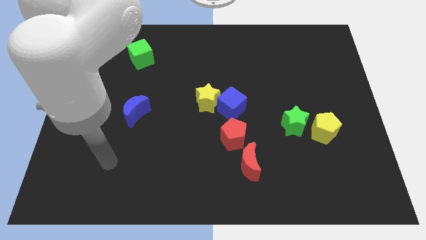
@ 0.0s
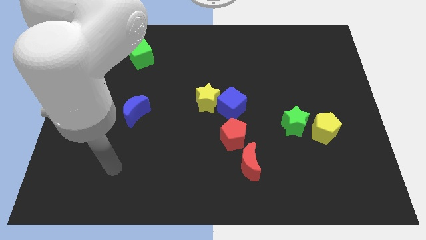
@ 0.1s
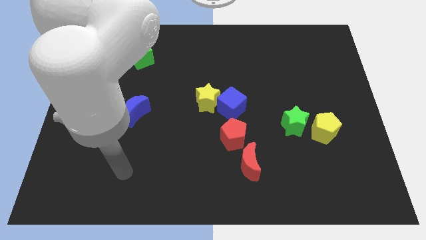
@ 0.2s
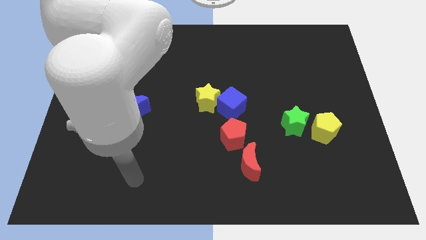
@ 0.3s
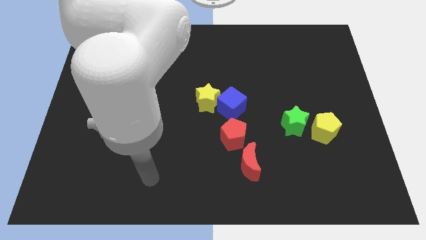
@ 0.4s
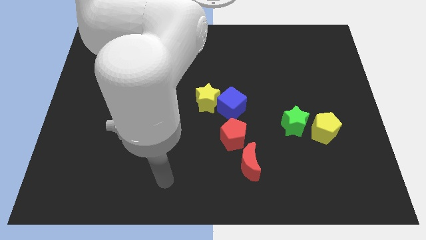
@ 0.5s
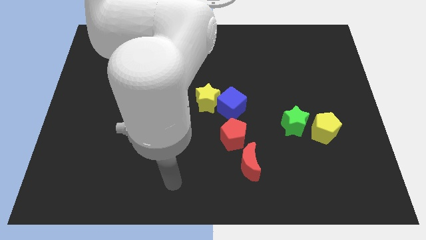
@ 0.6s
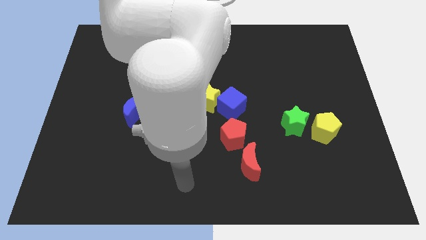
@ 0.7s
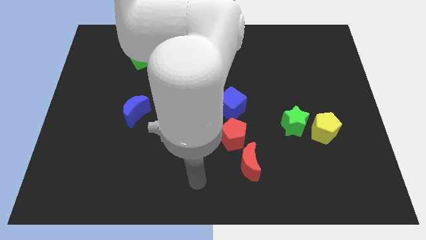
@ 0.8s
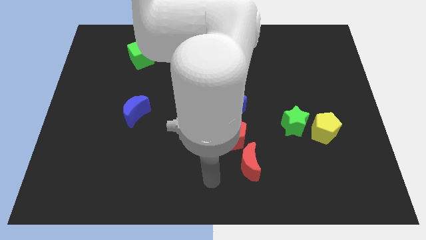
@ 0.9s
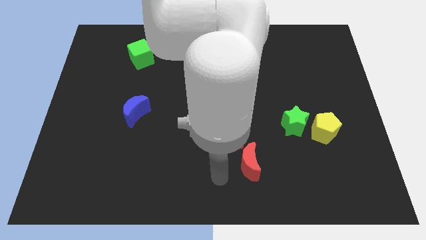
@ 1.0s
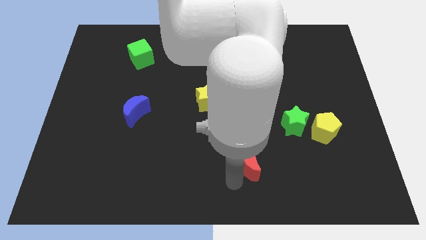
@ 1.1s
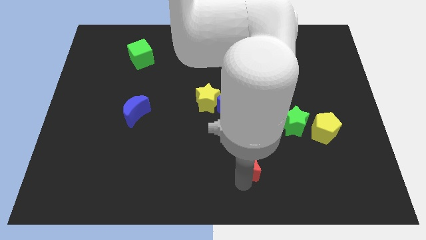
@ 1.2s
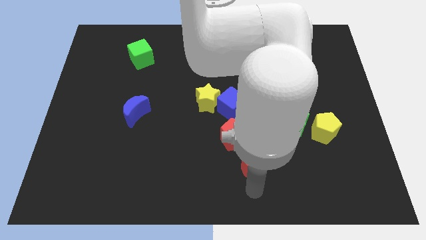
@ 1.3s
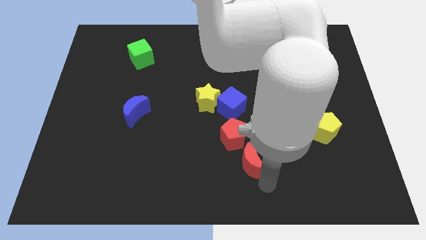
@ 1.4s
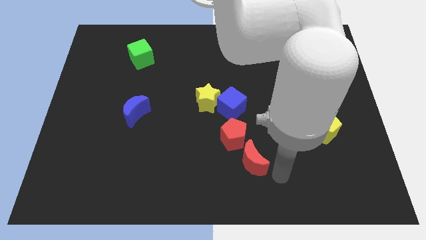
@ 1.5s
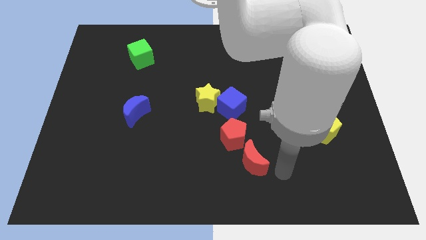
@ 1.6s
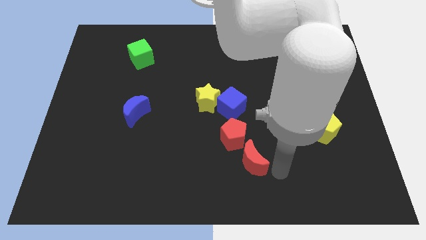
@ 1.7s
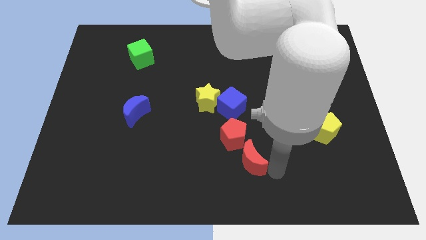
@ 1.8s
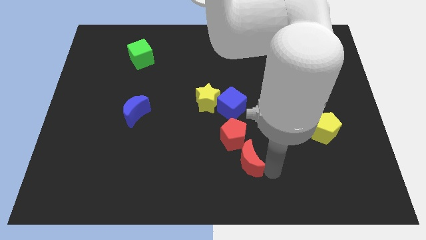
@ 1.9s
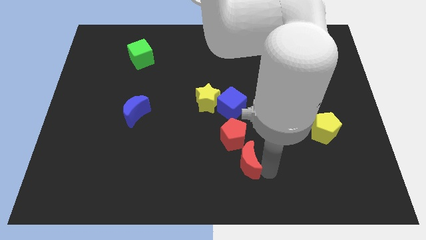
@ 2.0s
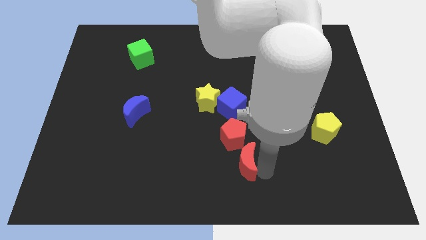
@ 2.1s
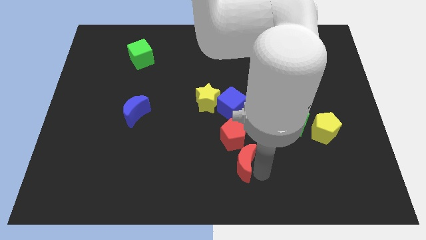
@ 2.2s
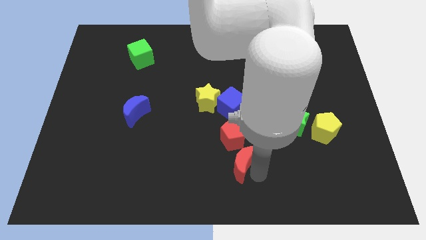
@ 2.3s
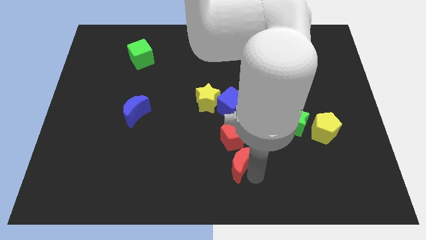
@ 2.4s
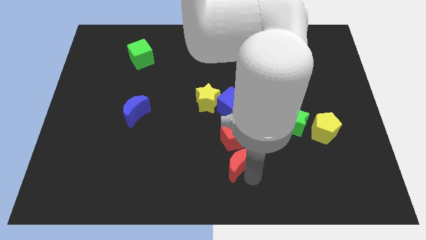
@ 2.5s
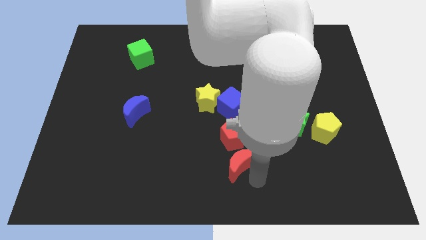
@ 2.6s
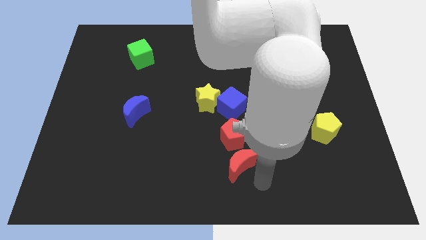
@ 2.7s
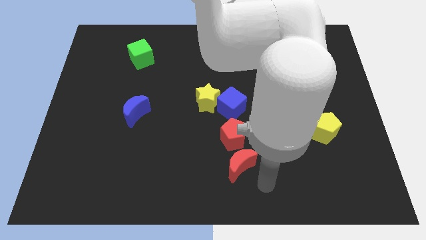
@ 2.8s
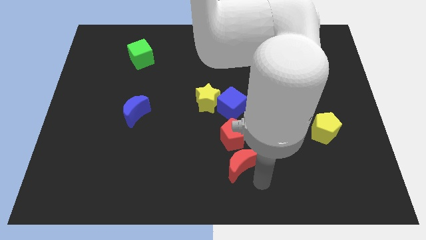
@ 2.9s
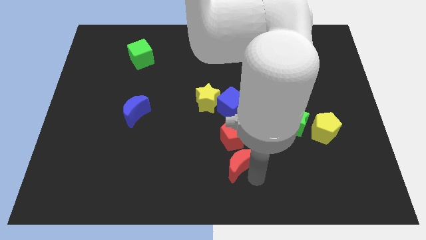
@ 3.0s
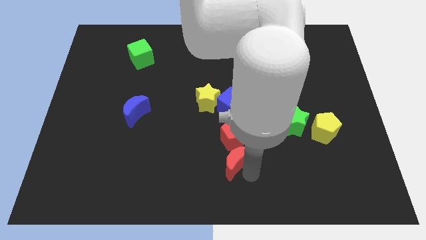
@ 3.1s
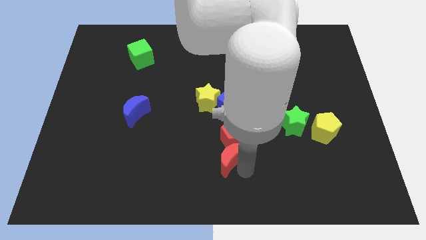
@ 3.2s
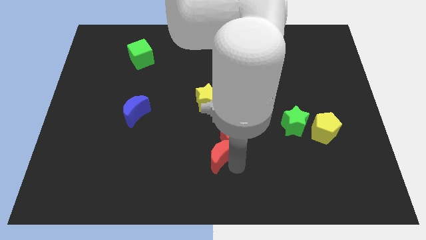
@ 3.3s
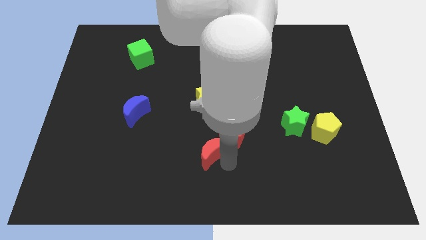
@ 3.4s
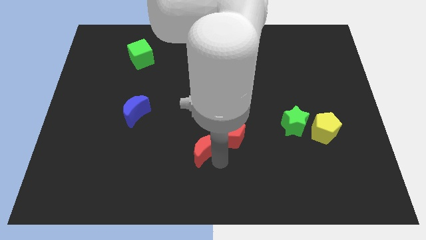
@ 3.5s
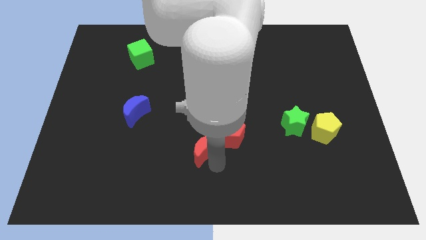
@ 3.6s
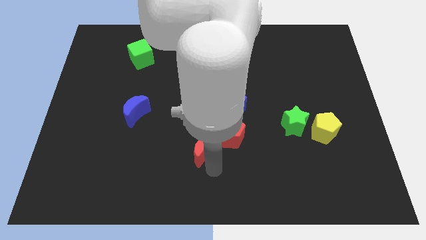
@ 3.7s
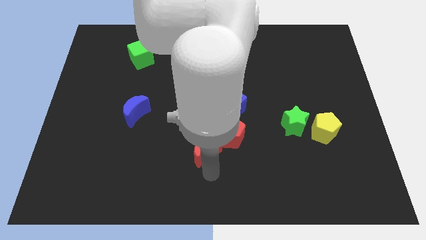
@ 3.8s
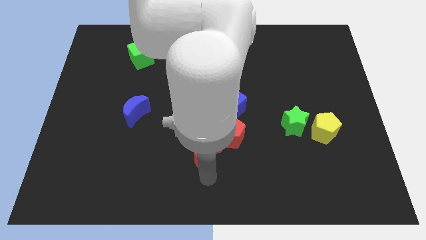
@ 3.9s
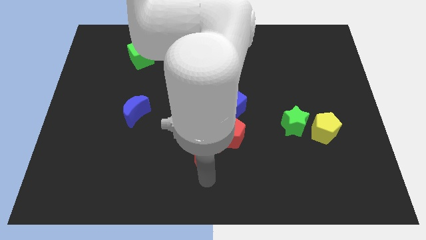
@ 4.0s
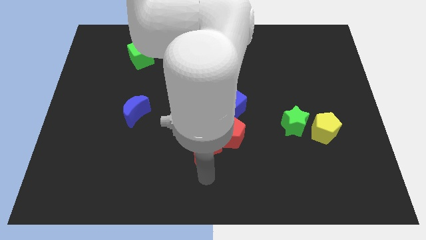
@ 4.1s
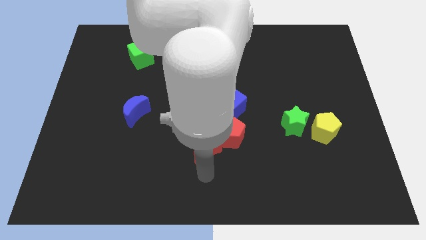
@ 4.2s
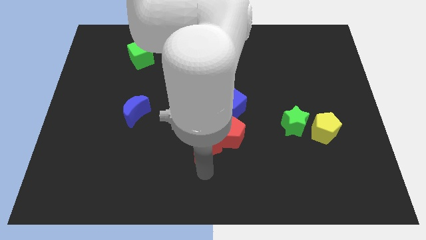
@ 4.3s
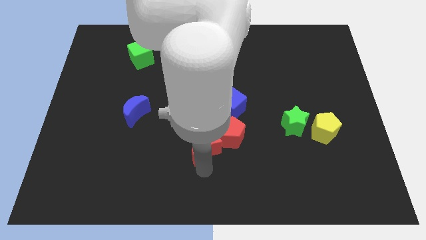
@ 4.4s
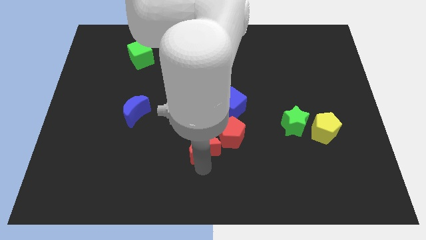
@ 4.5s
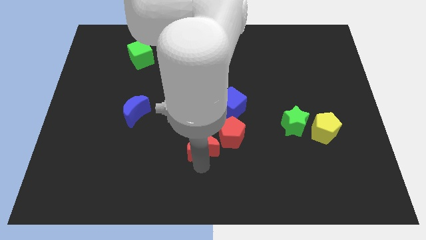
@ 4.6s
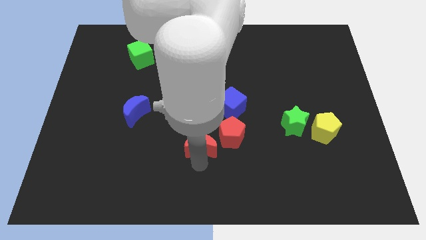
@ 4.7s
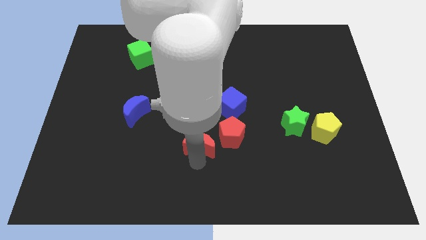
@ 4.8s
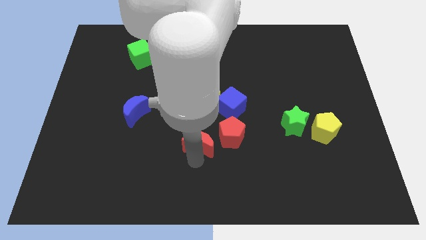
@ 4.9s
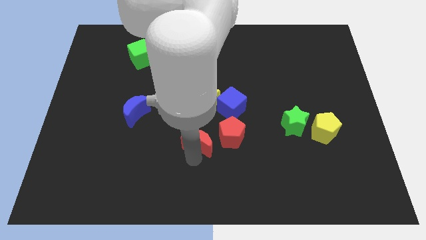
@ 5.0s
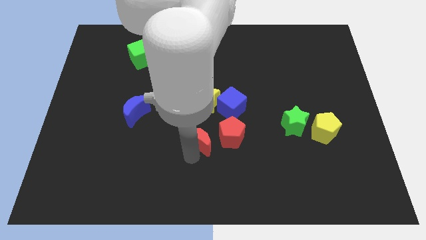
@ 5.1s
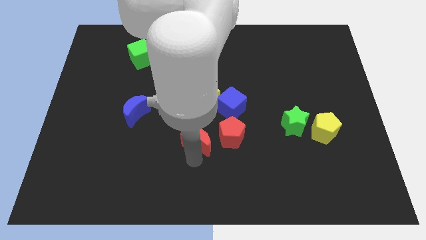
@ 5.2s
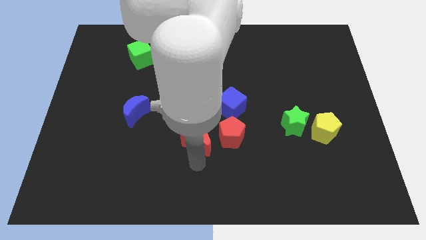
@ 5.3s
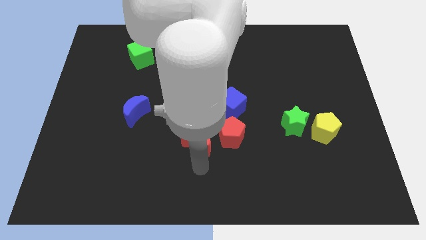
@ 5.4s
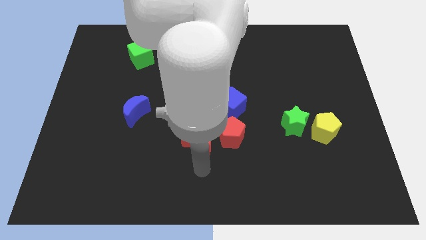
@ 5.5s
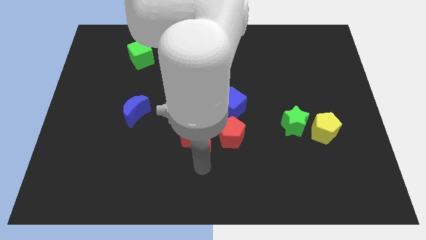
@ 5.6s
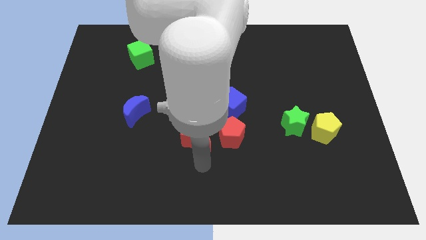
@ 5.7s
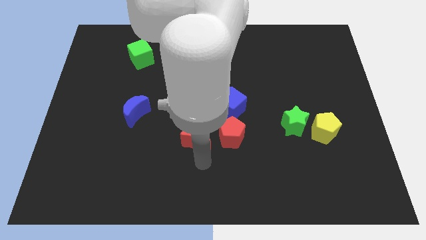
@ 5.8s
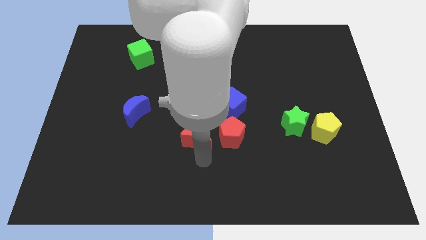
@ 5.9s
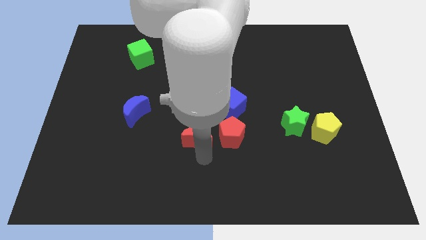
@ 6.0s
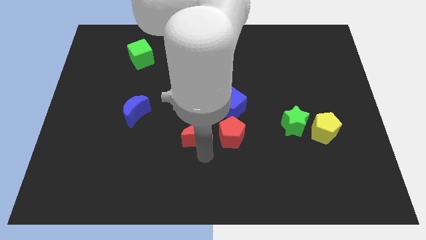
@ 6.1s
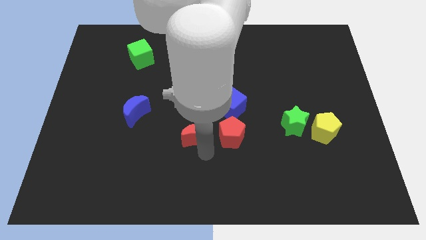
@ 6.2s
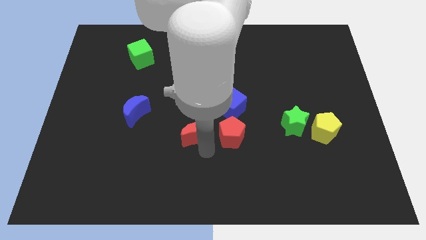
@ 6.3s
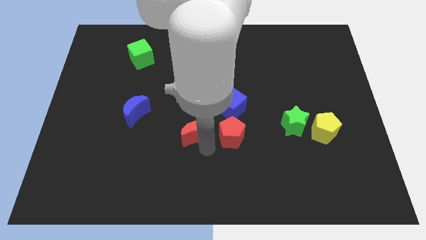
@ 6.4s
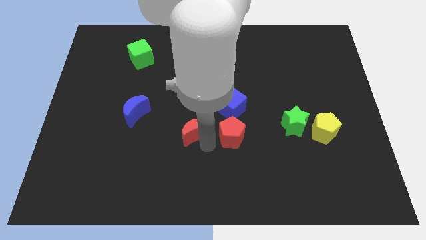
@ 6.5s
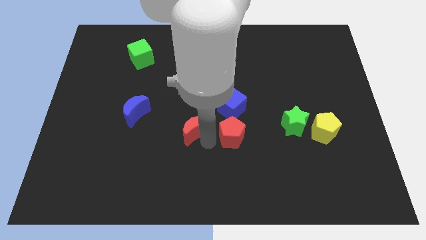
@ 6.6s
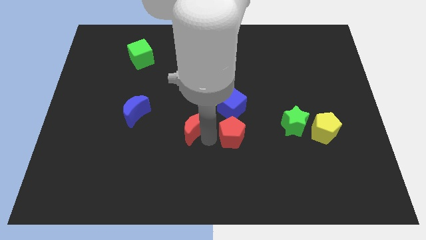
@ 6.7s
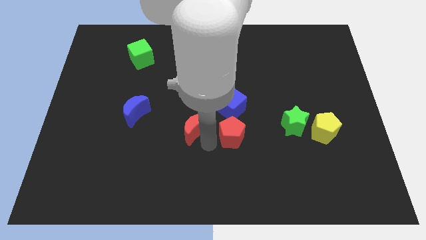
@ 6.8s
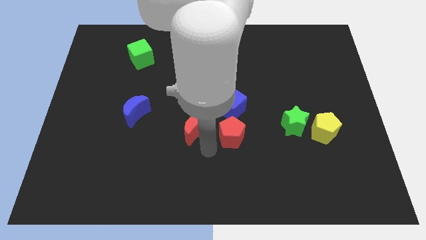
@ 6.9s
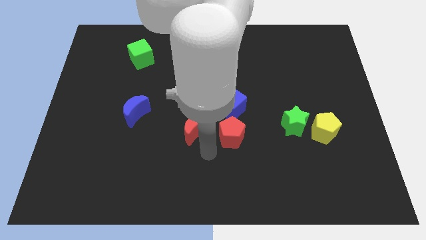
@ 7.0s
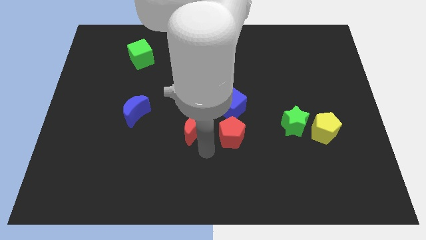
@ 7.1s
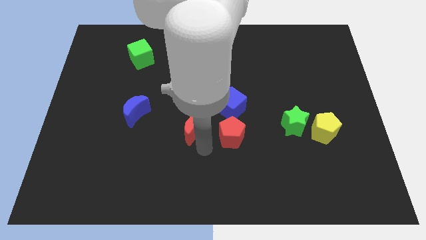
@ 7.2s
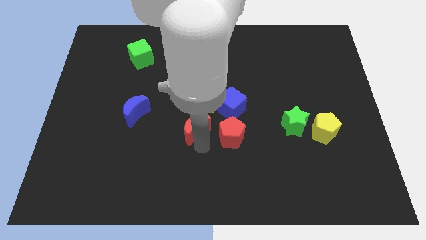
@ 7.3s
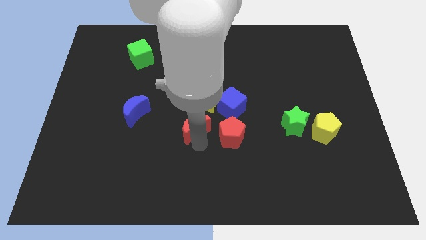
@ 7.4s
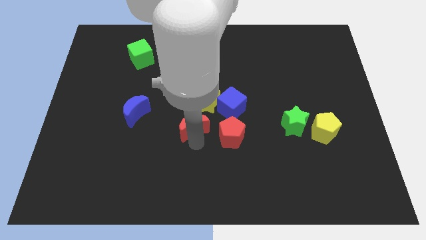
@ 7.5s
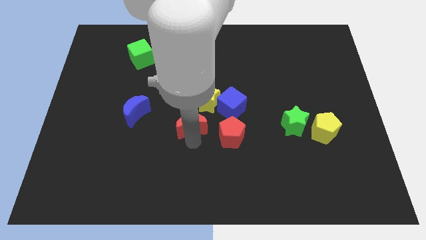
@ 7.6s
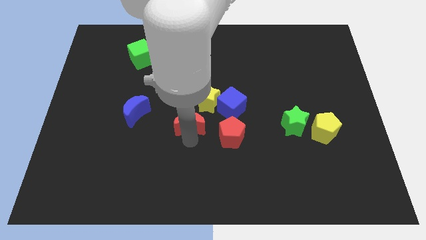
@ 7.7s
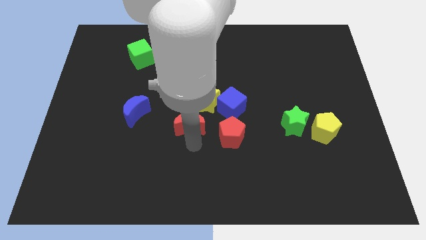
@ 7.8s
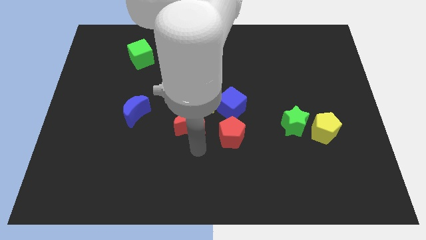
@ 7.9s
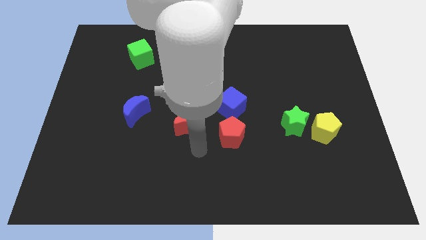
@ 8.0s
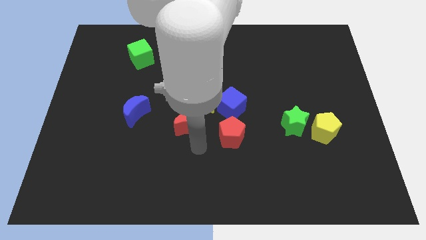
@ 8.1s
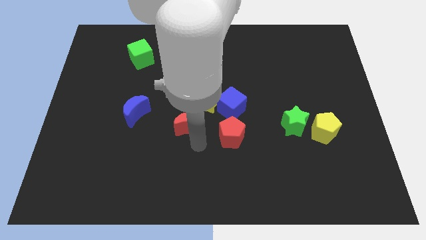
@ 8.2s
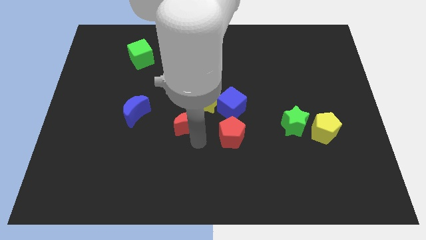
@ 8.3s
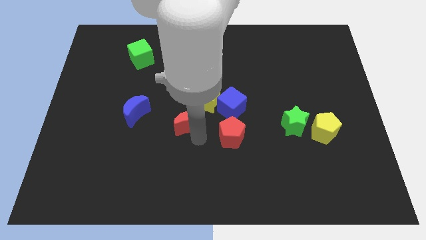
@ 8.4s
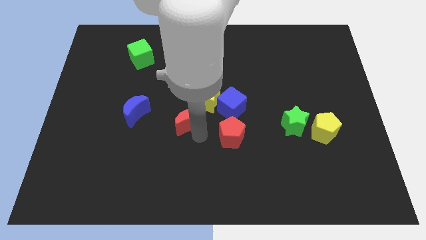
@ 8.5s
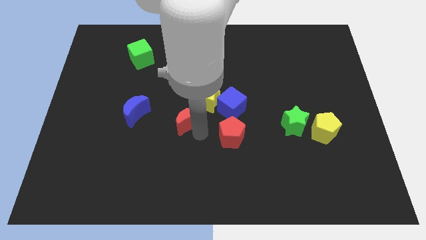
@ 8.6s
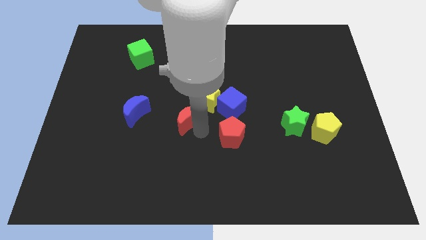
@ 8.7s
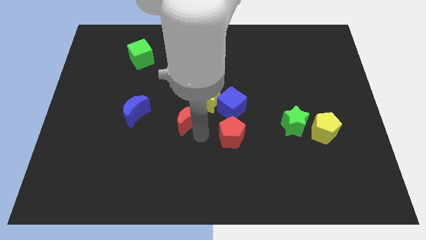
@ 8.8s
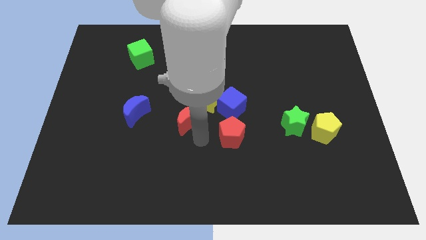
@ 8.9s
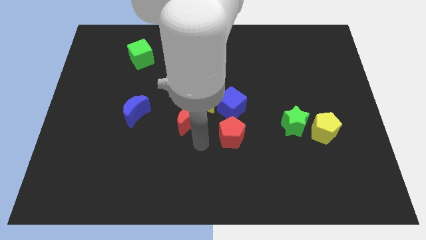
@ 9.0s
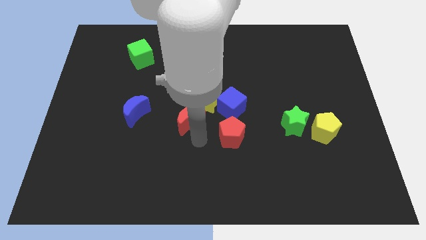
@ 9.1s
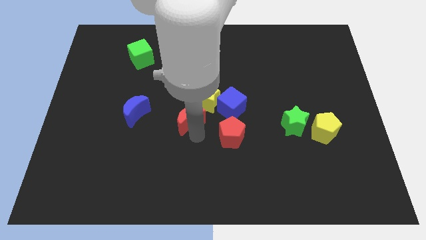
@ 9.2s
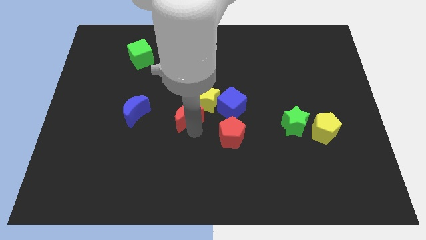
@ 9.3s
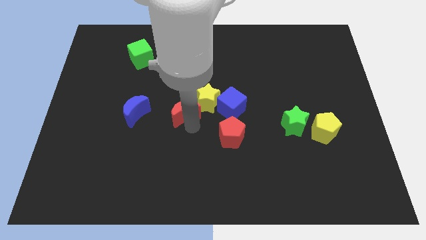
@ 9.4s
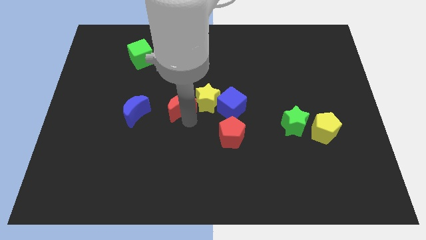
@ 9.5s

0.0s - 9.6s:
move the red moon diagonally upwards and left
